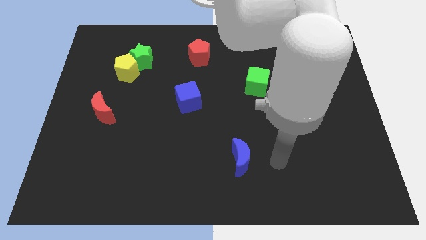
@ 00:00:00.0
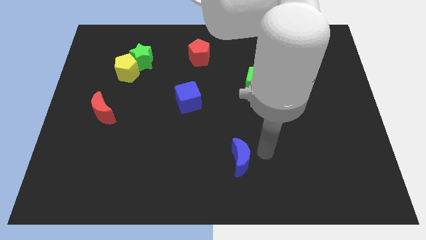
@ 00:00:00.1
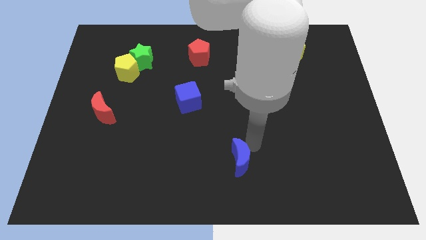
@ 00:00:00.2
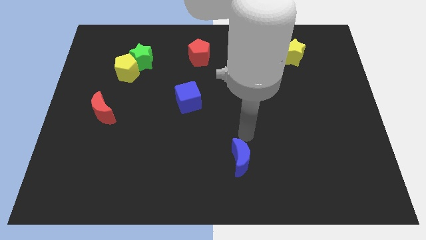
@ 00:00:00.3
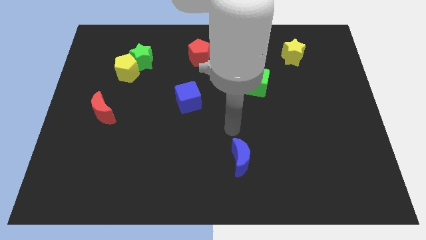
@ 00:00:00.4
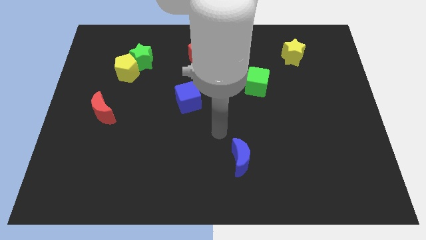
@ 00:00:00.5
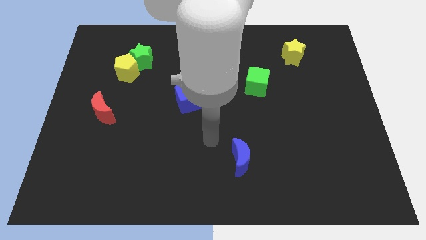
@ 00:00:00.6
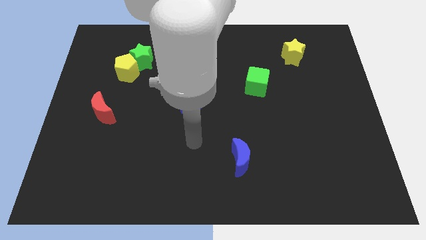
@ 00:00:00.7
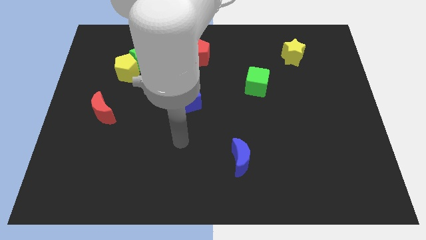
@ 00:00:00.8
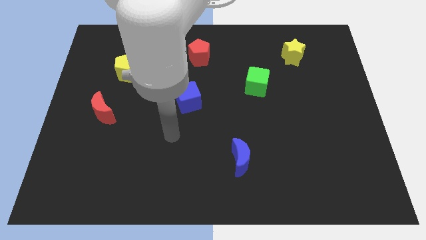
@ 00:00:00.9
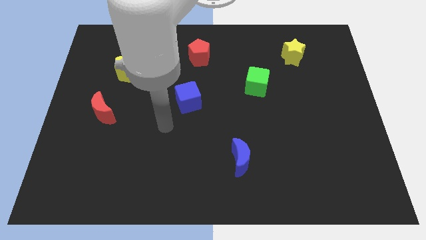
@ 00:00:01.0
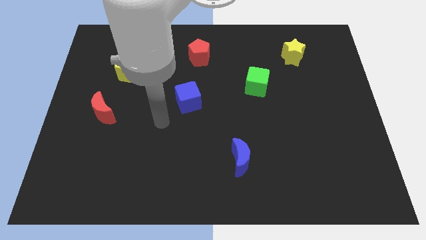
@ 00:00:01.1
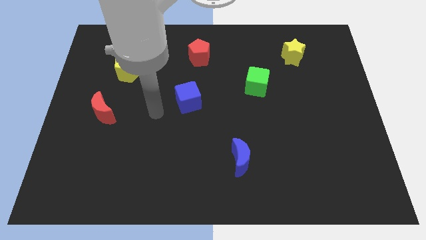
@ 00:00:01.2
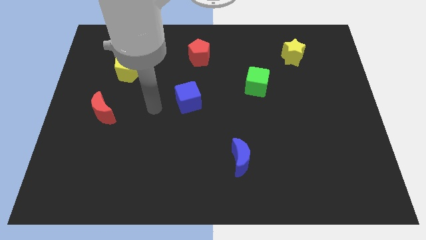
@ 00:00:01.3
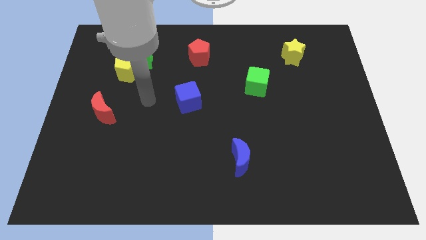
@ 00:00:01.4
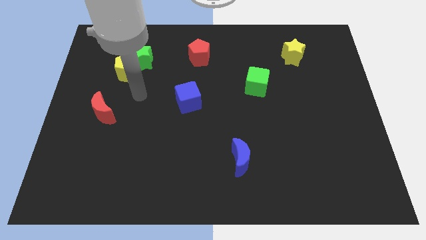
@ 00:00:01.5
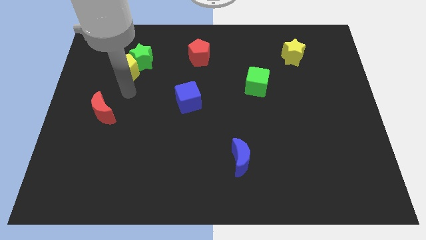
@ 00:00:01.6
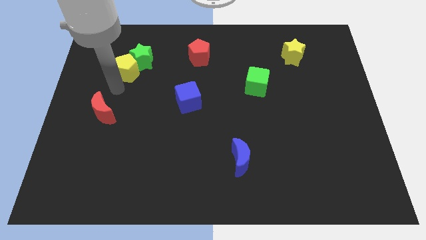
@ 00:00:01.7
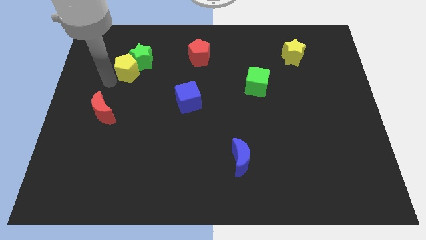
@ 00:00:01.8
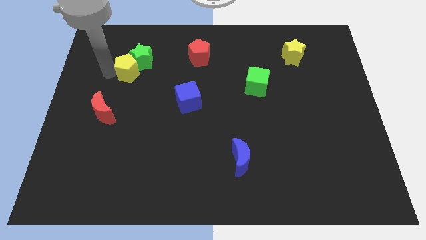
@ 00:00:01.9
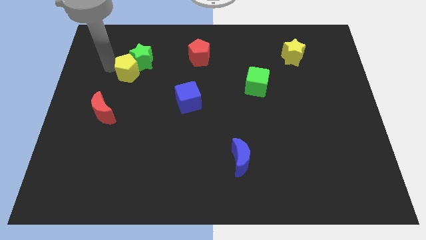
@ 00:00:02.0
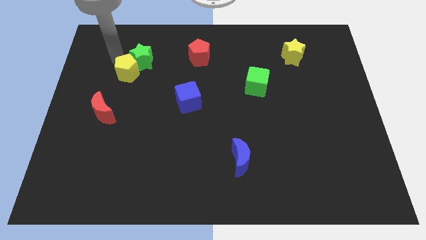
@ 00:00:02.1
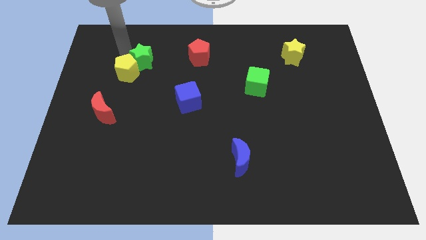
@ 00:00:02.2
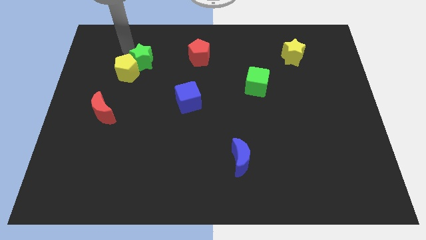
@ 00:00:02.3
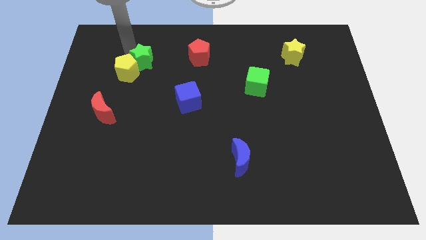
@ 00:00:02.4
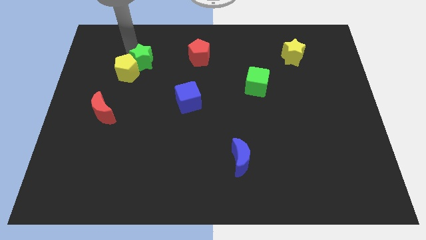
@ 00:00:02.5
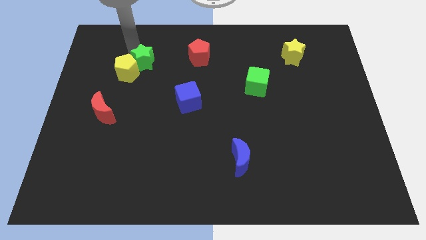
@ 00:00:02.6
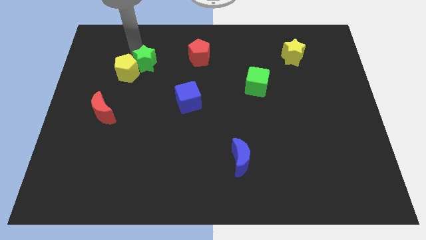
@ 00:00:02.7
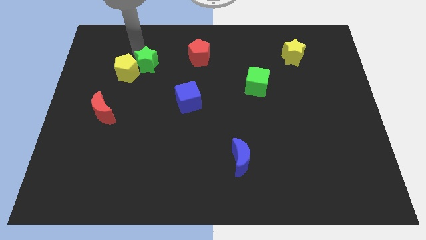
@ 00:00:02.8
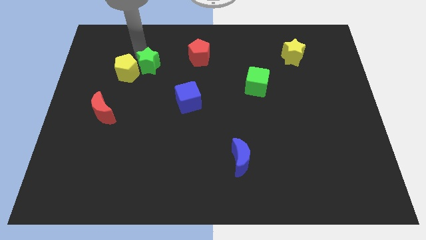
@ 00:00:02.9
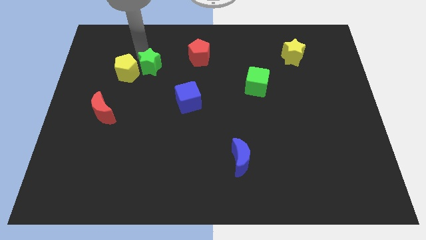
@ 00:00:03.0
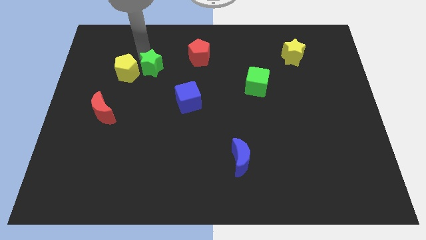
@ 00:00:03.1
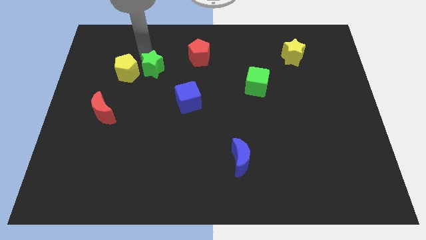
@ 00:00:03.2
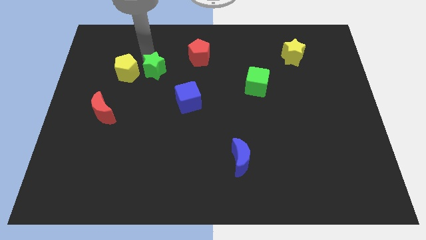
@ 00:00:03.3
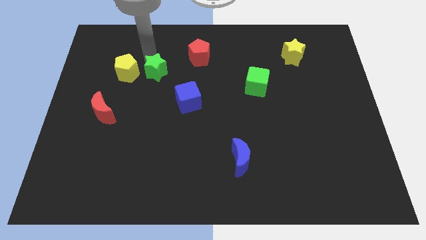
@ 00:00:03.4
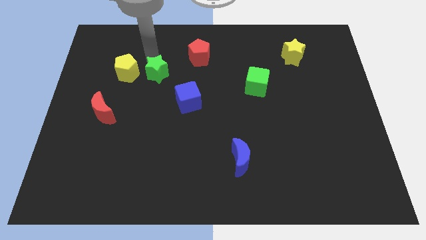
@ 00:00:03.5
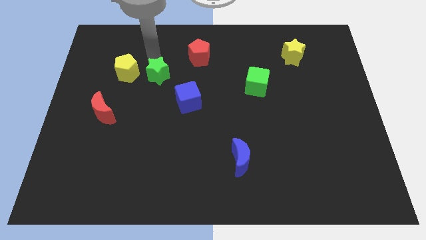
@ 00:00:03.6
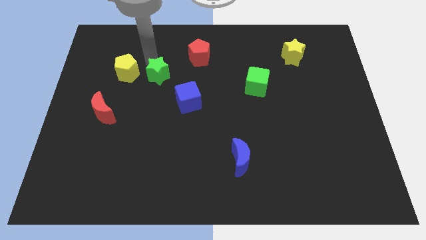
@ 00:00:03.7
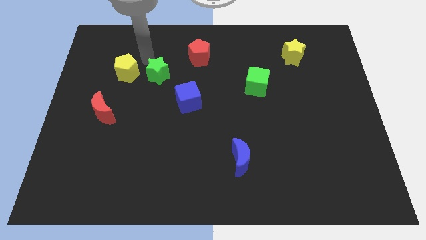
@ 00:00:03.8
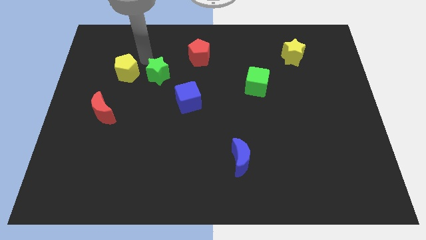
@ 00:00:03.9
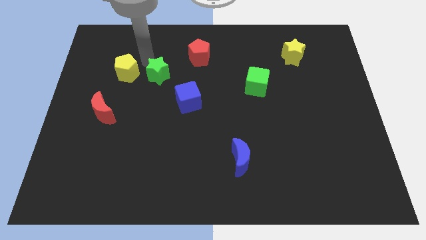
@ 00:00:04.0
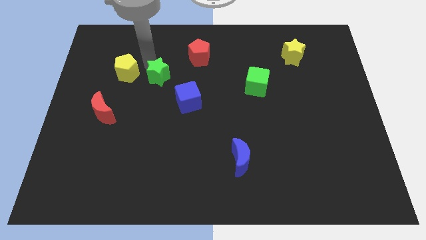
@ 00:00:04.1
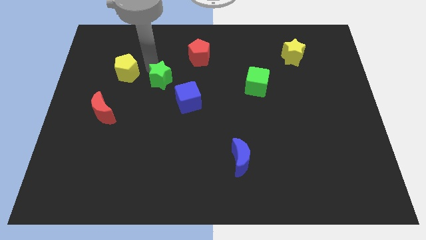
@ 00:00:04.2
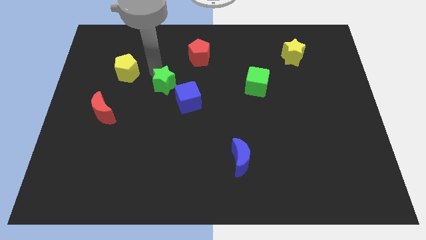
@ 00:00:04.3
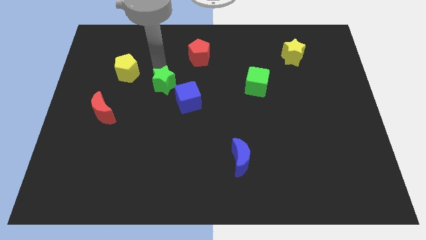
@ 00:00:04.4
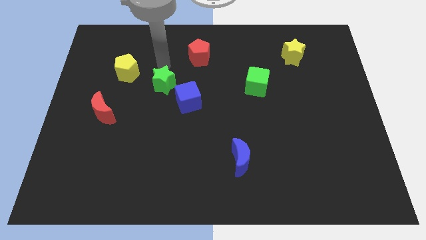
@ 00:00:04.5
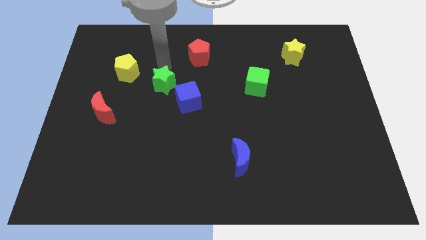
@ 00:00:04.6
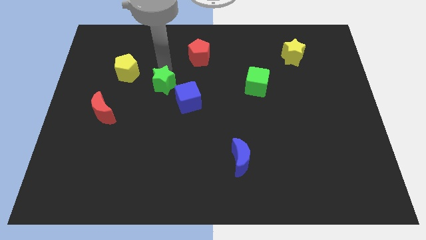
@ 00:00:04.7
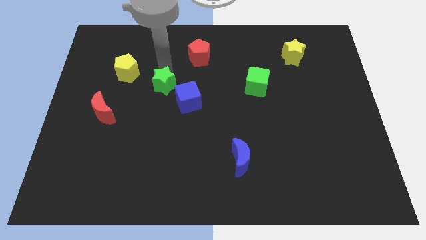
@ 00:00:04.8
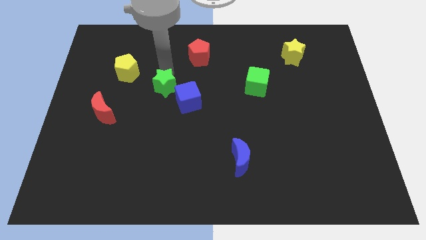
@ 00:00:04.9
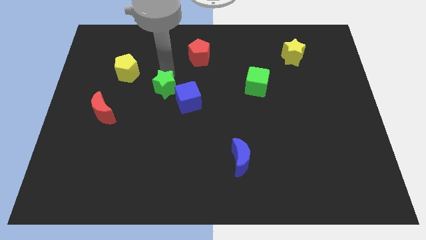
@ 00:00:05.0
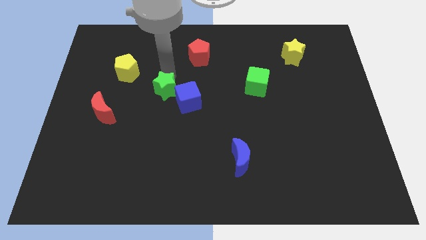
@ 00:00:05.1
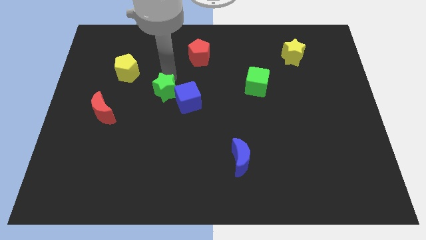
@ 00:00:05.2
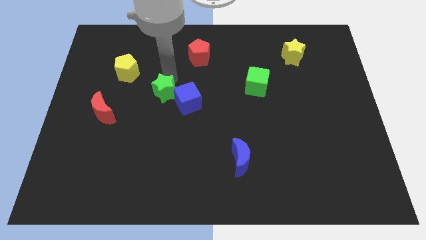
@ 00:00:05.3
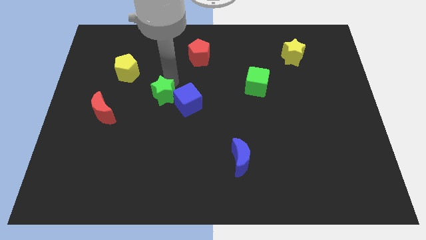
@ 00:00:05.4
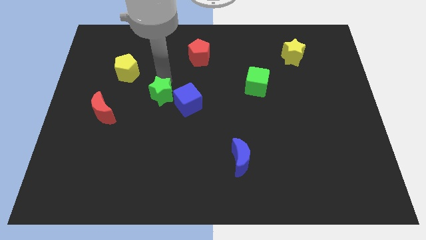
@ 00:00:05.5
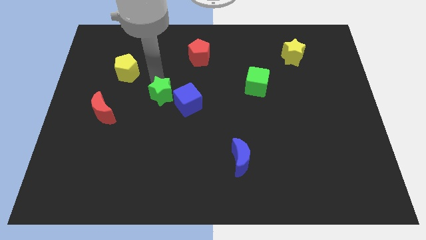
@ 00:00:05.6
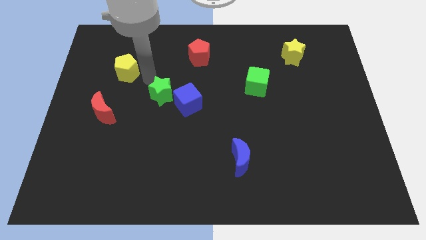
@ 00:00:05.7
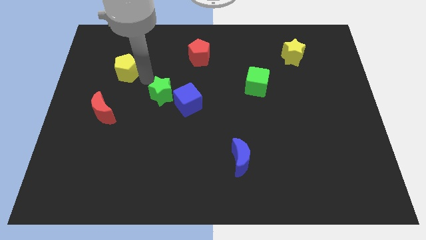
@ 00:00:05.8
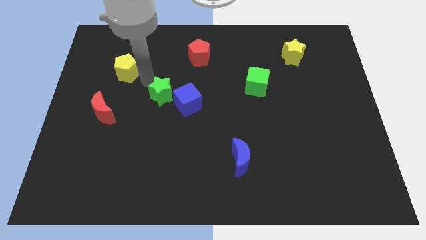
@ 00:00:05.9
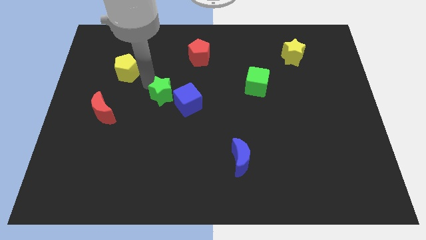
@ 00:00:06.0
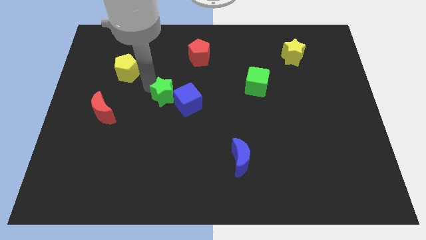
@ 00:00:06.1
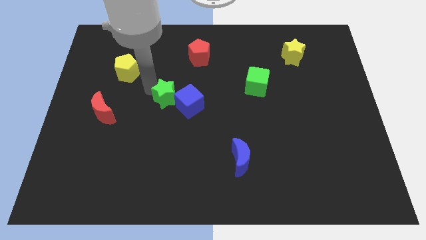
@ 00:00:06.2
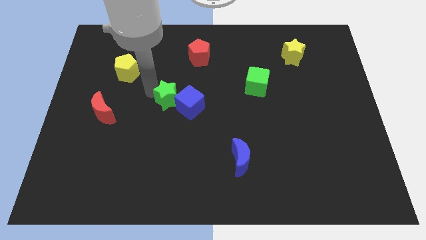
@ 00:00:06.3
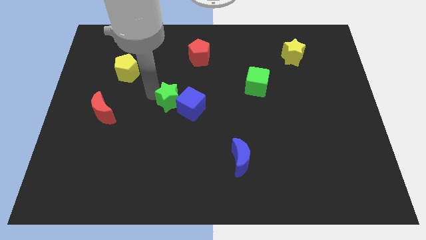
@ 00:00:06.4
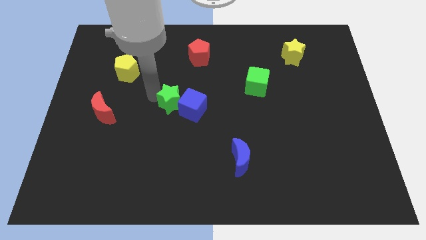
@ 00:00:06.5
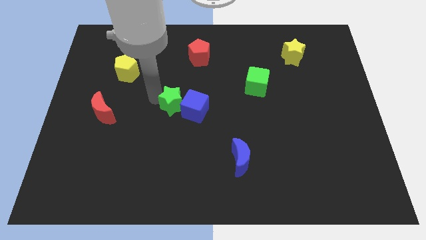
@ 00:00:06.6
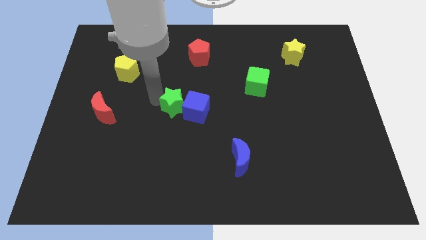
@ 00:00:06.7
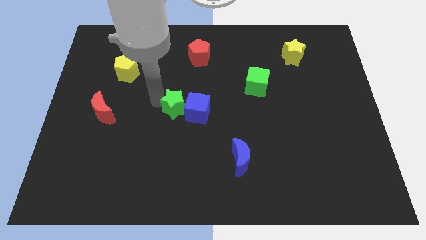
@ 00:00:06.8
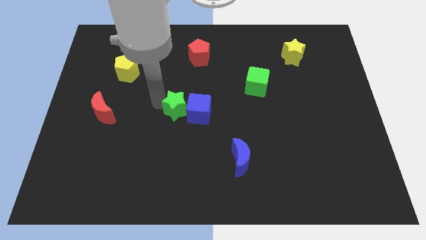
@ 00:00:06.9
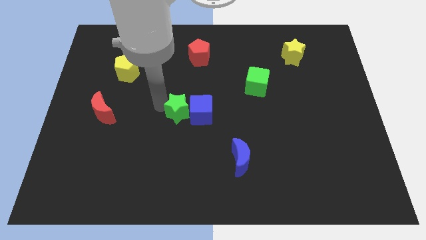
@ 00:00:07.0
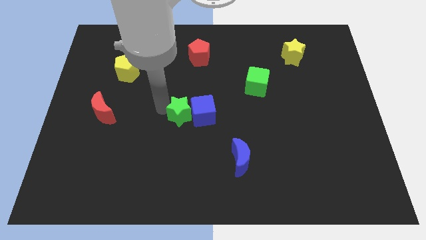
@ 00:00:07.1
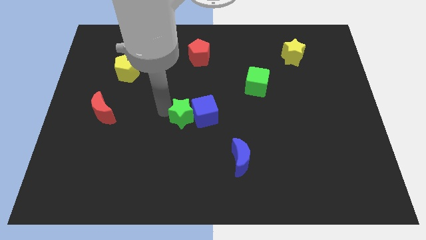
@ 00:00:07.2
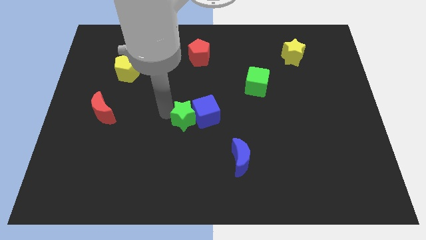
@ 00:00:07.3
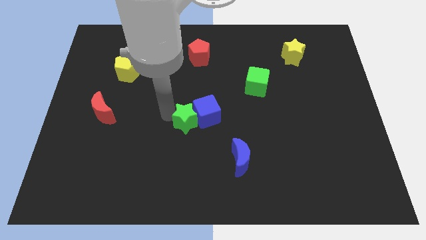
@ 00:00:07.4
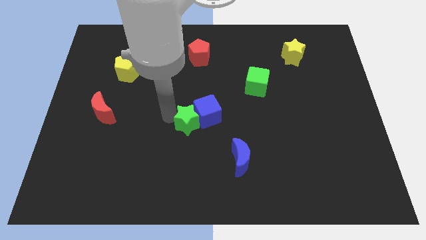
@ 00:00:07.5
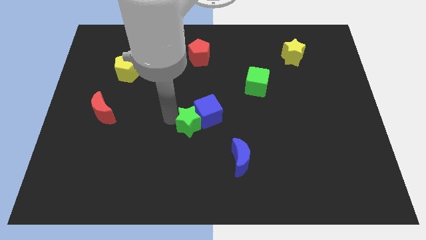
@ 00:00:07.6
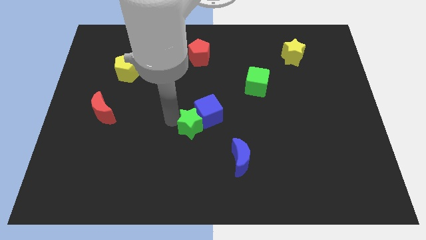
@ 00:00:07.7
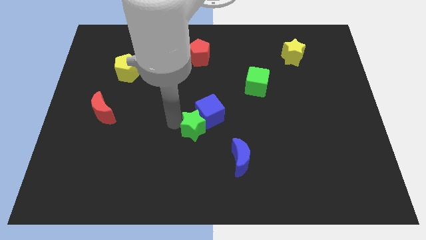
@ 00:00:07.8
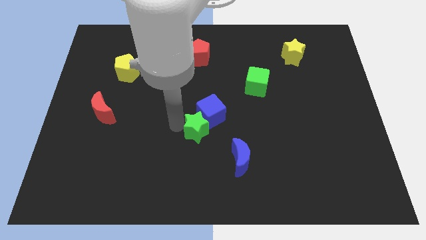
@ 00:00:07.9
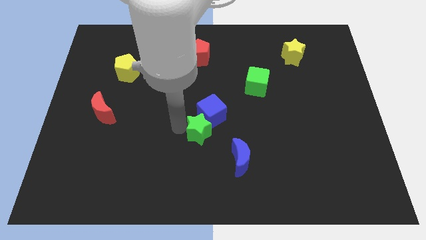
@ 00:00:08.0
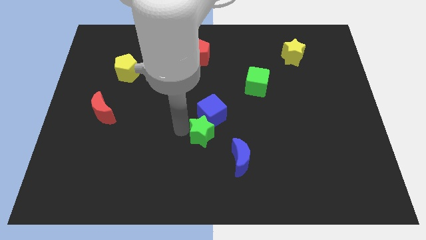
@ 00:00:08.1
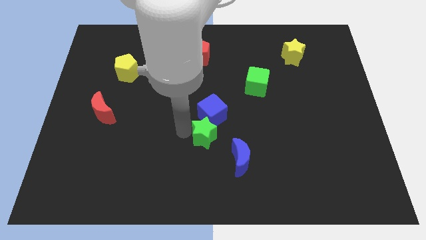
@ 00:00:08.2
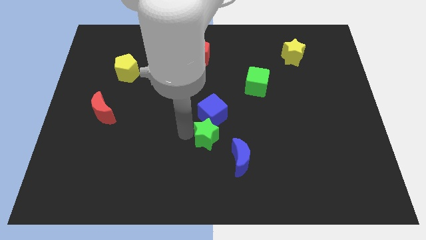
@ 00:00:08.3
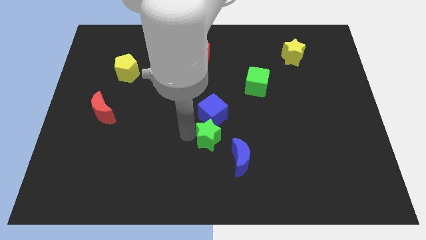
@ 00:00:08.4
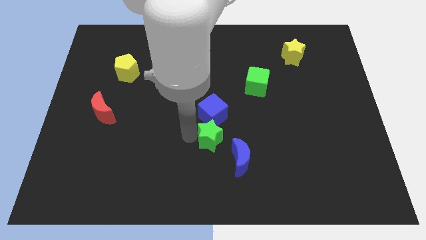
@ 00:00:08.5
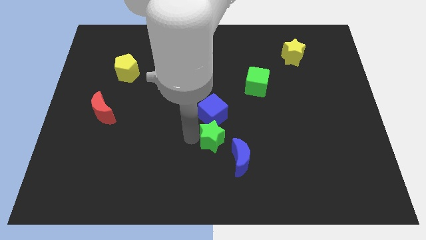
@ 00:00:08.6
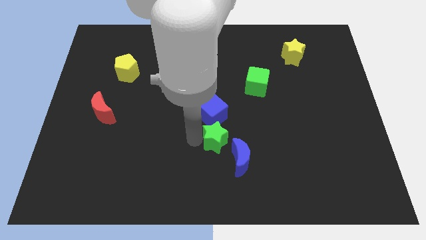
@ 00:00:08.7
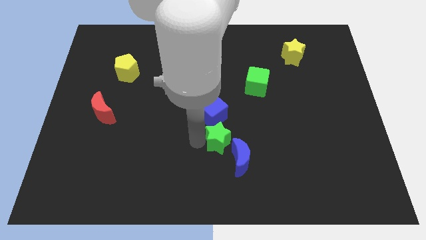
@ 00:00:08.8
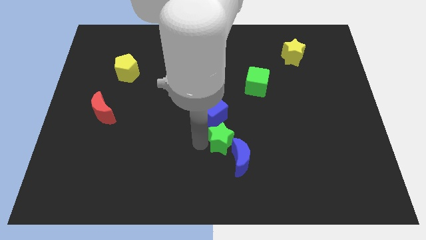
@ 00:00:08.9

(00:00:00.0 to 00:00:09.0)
slide the green star to the blue moon
